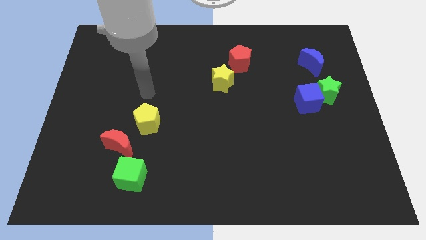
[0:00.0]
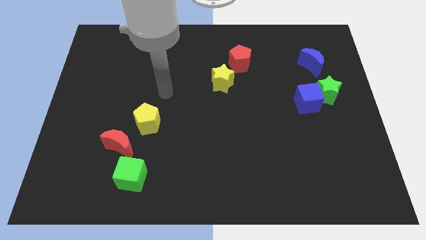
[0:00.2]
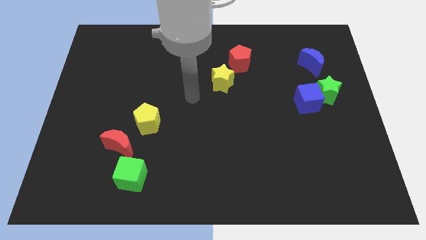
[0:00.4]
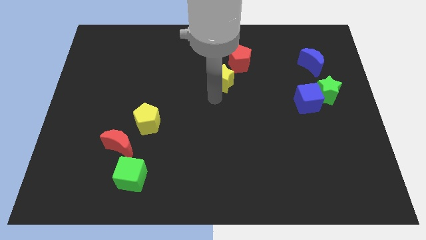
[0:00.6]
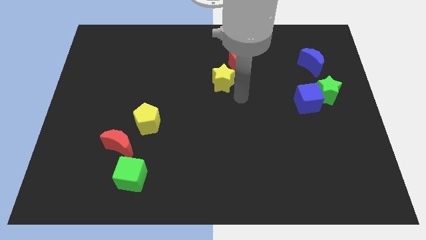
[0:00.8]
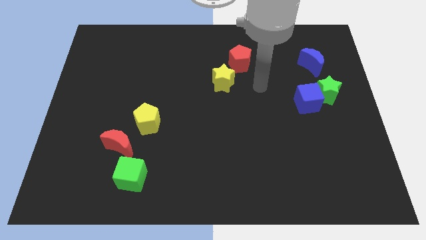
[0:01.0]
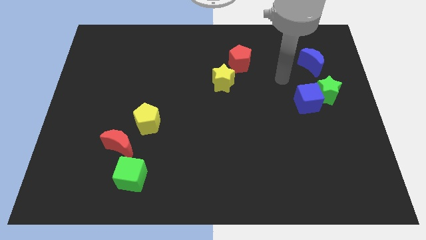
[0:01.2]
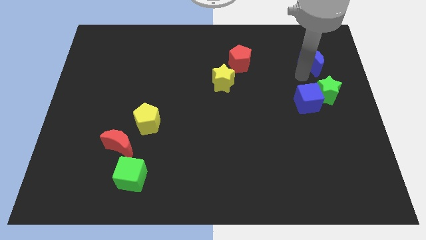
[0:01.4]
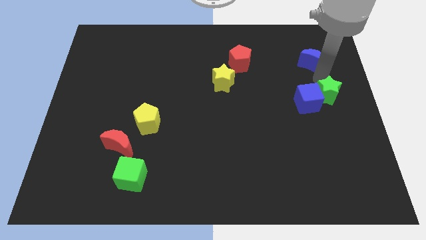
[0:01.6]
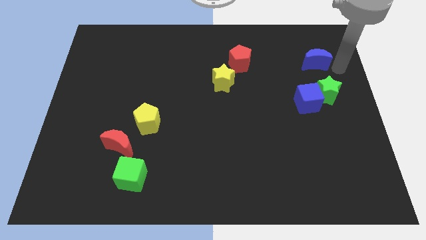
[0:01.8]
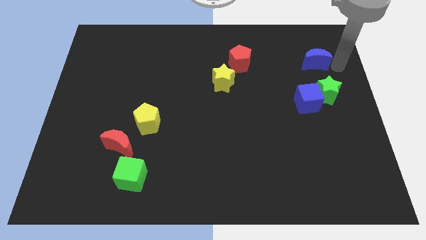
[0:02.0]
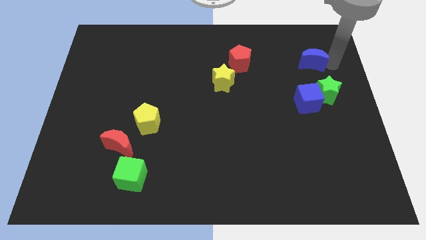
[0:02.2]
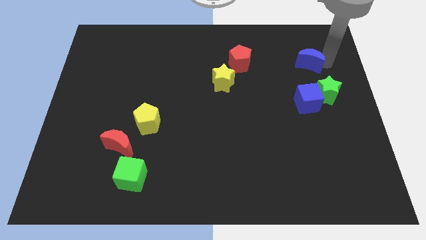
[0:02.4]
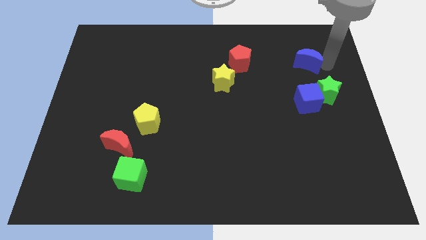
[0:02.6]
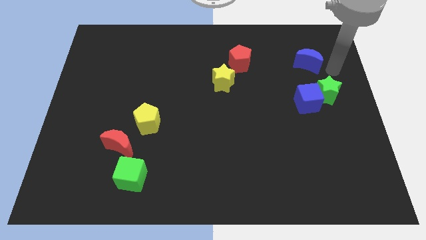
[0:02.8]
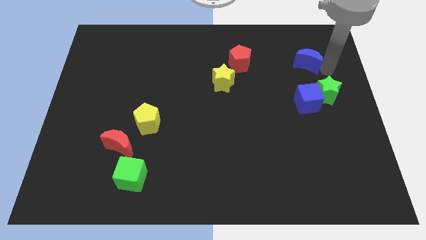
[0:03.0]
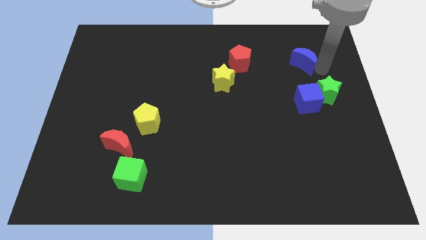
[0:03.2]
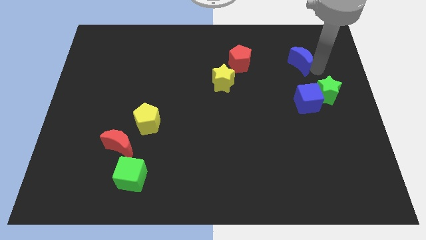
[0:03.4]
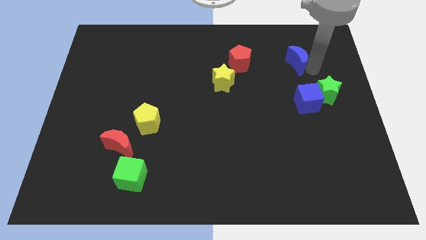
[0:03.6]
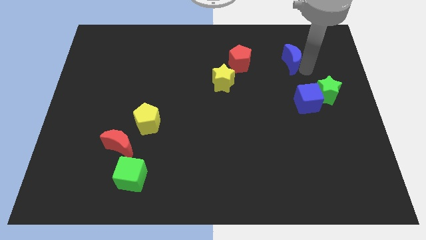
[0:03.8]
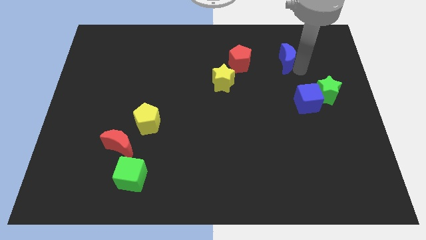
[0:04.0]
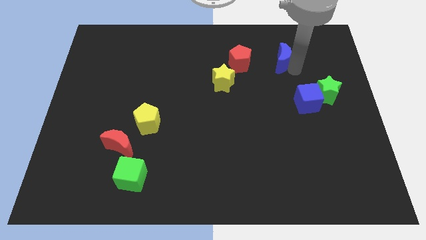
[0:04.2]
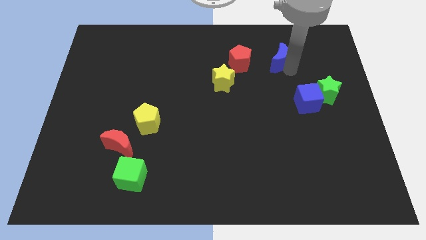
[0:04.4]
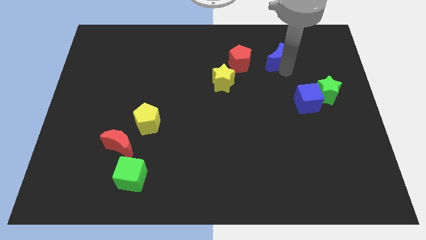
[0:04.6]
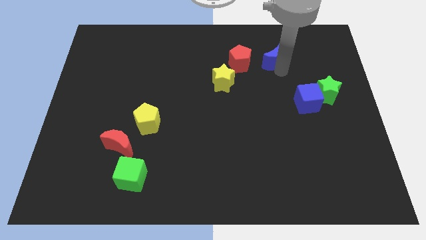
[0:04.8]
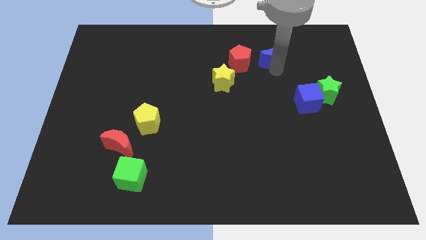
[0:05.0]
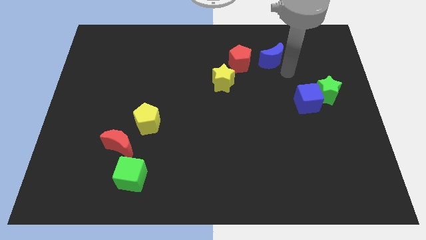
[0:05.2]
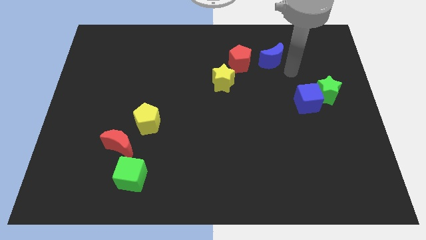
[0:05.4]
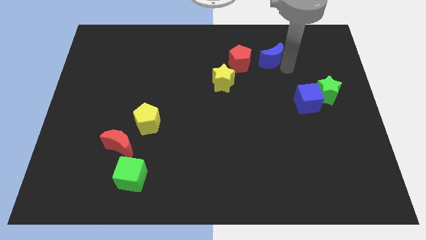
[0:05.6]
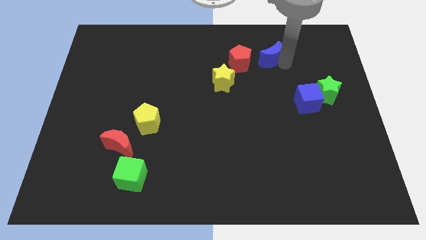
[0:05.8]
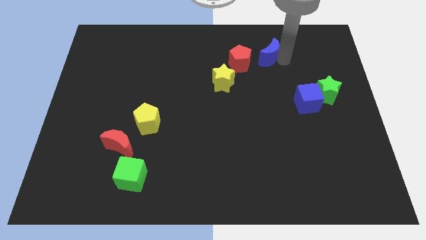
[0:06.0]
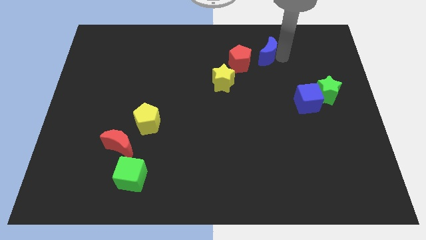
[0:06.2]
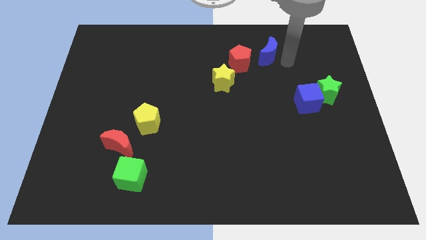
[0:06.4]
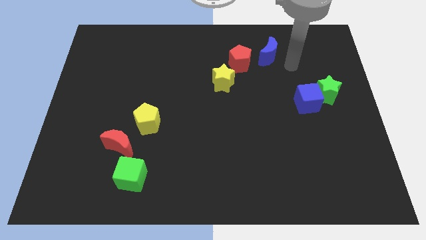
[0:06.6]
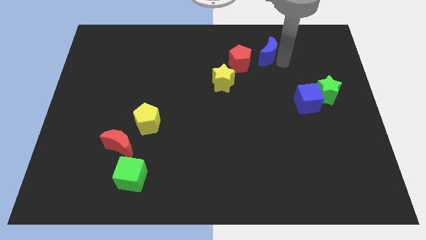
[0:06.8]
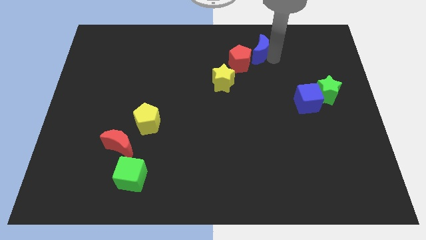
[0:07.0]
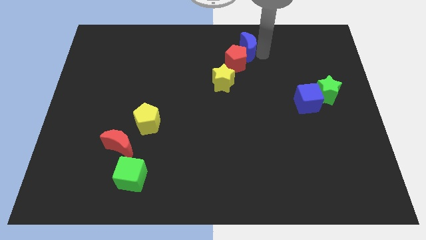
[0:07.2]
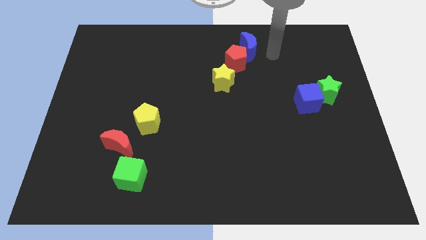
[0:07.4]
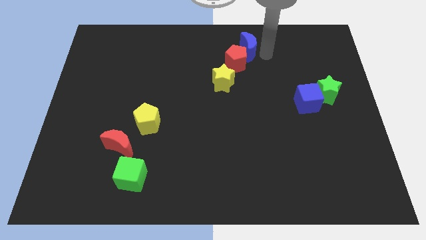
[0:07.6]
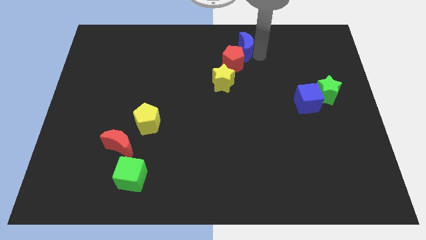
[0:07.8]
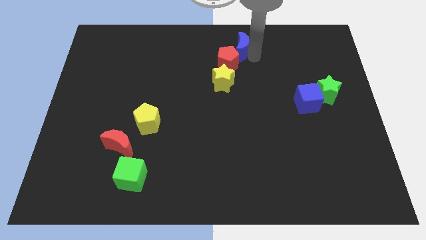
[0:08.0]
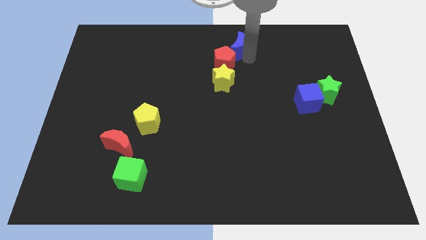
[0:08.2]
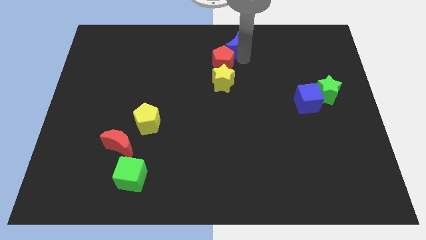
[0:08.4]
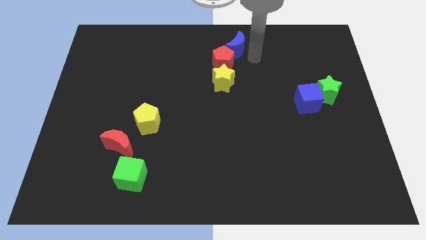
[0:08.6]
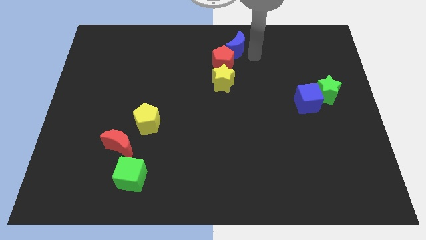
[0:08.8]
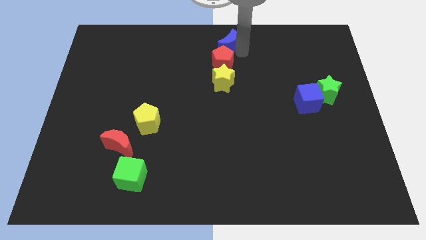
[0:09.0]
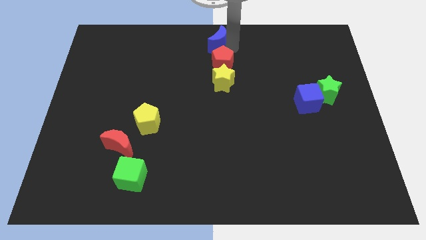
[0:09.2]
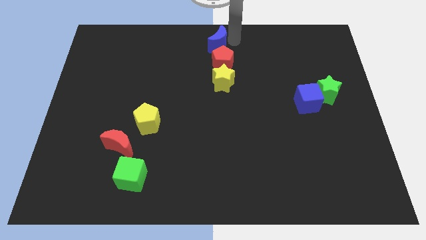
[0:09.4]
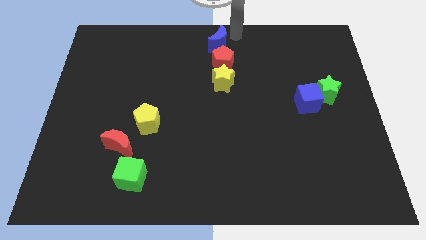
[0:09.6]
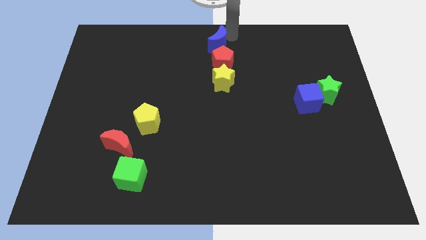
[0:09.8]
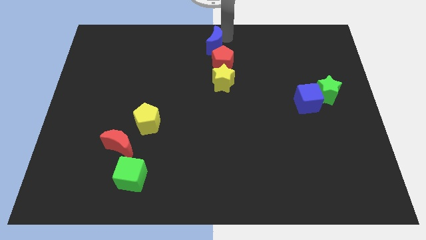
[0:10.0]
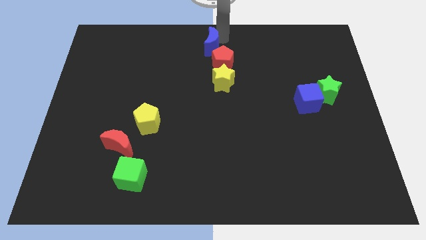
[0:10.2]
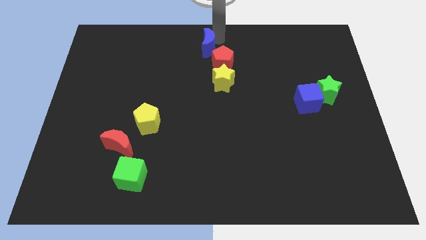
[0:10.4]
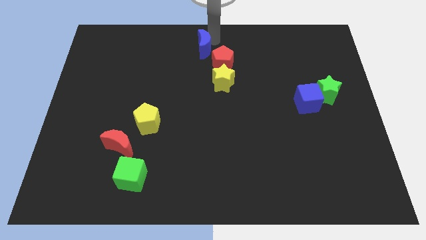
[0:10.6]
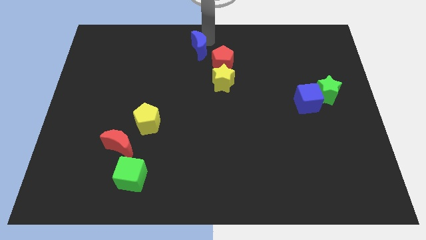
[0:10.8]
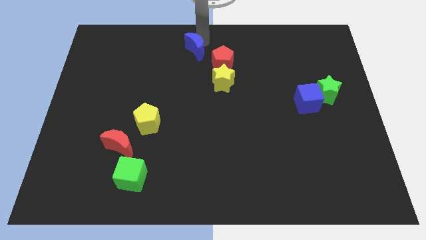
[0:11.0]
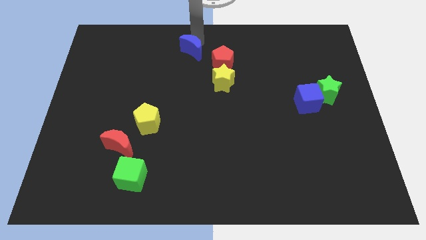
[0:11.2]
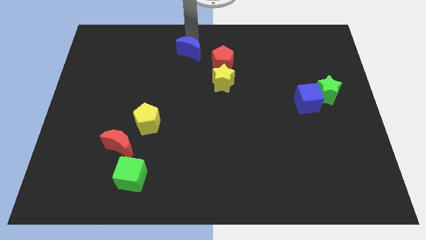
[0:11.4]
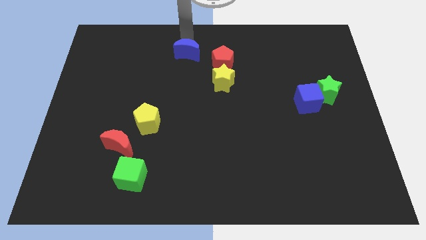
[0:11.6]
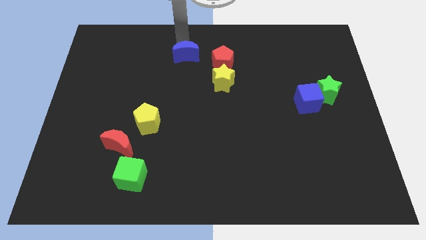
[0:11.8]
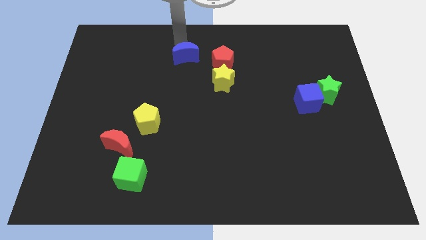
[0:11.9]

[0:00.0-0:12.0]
move the blue moon to the top left side of the yellow star

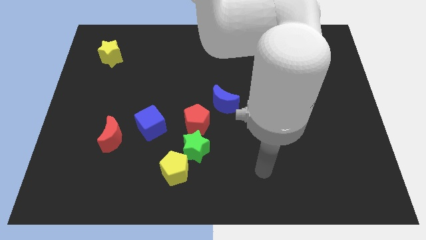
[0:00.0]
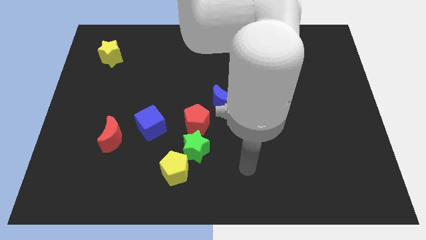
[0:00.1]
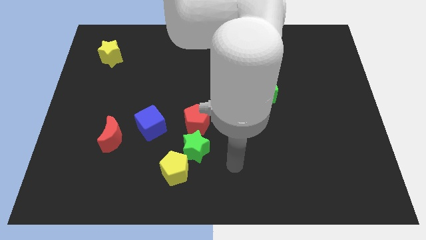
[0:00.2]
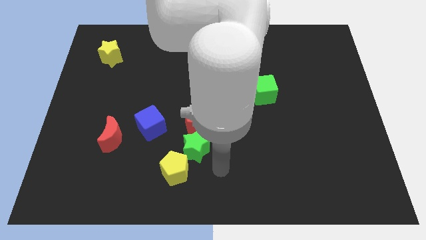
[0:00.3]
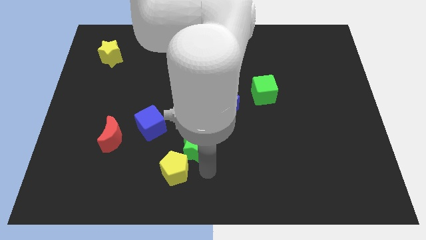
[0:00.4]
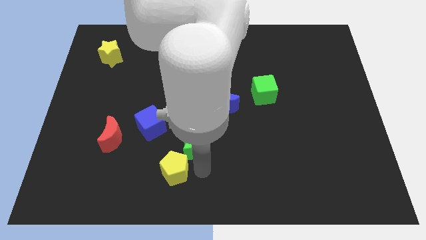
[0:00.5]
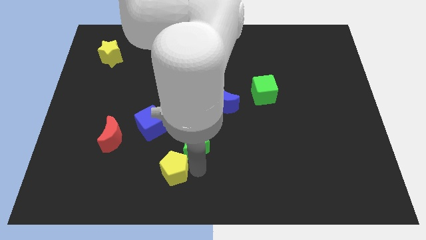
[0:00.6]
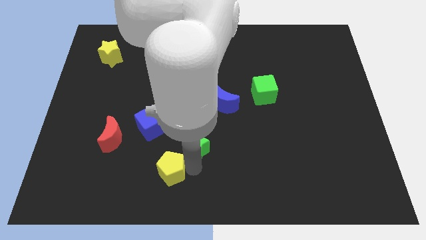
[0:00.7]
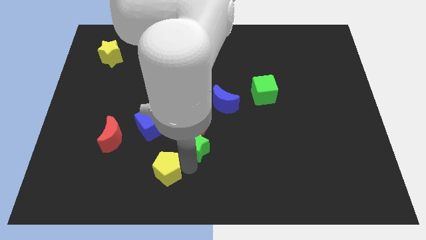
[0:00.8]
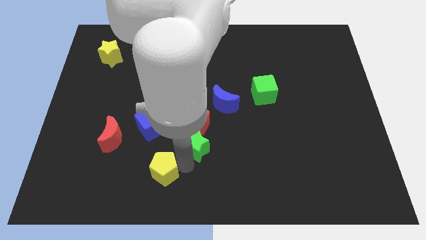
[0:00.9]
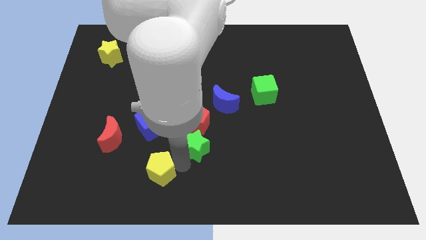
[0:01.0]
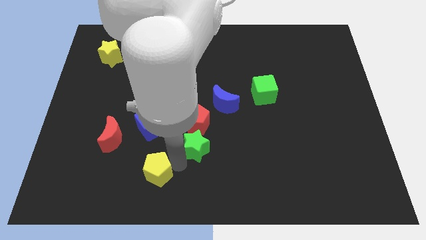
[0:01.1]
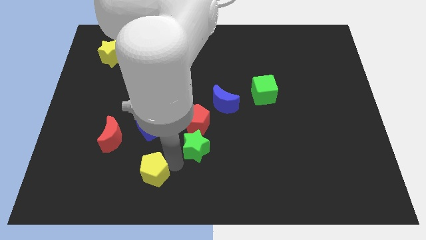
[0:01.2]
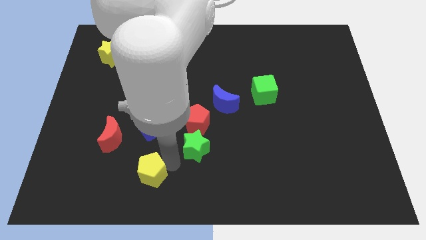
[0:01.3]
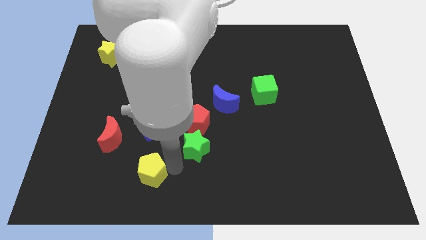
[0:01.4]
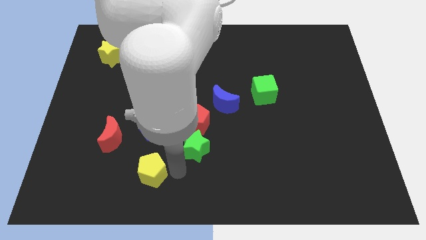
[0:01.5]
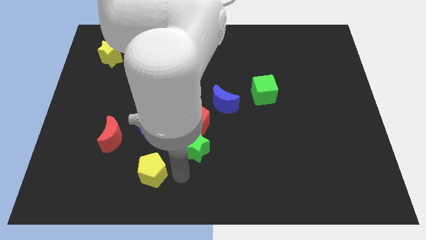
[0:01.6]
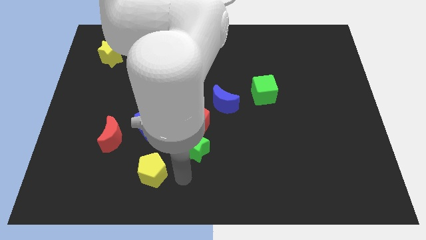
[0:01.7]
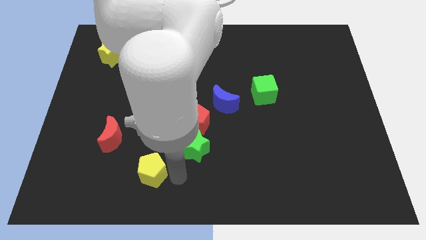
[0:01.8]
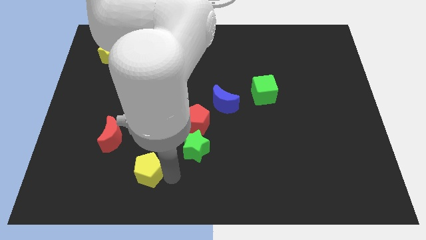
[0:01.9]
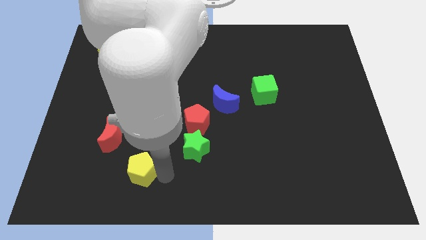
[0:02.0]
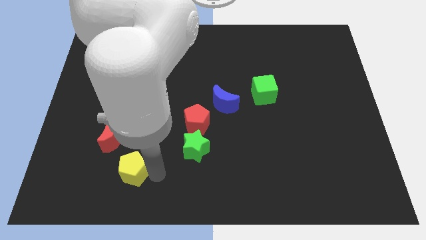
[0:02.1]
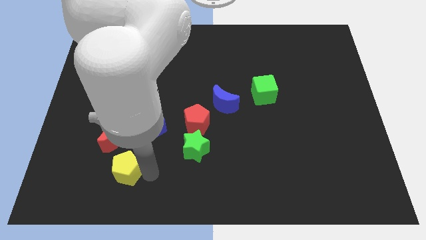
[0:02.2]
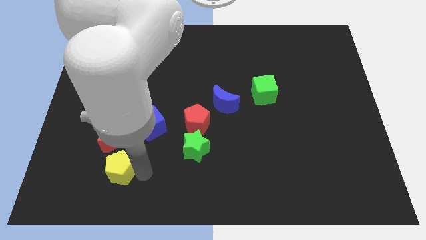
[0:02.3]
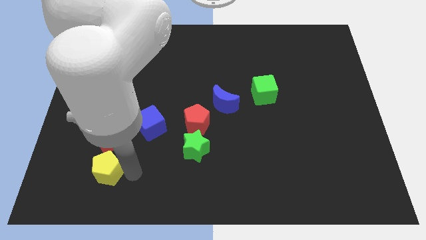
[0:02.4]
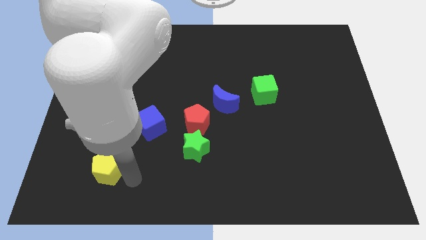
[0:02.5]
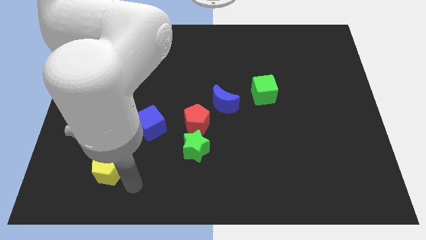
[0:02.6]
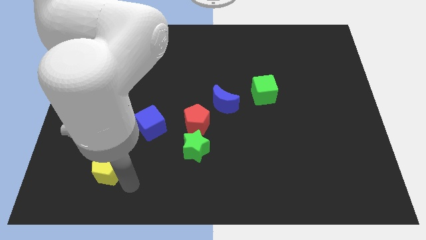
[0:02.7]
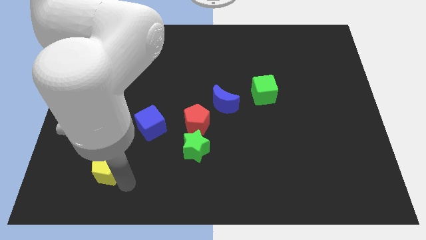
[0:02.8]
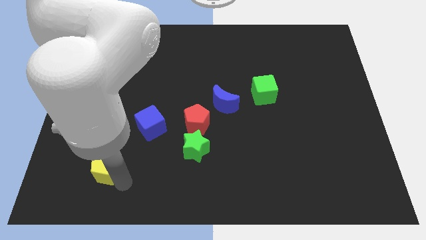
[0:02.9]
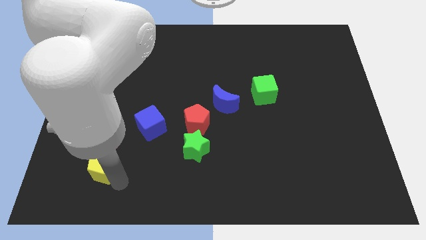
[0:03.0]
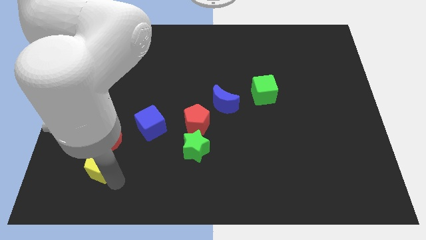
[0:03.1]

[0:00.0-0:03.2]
push the yellow pentagon to the bottom left side of the red moon
